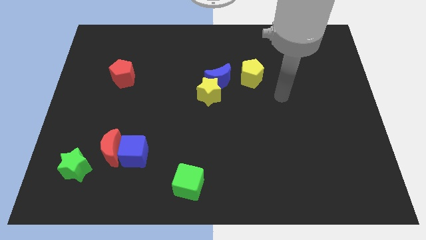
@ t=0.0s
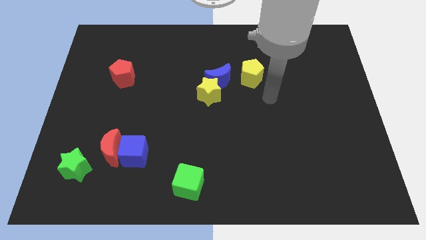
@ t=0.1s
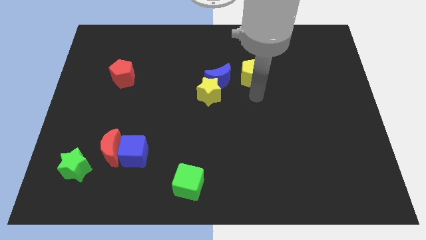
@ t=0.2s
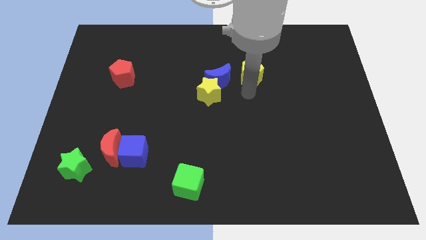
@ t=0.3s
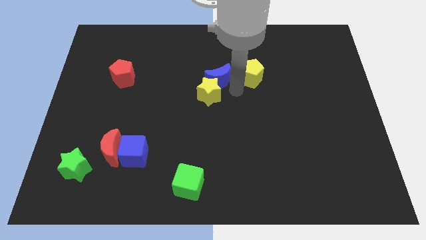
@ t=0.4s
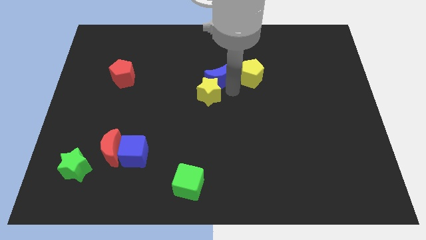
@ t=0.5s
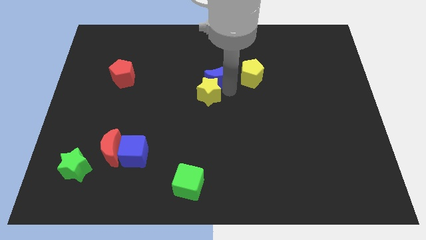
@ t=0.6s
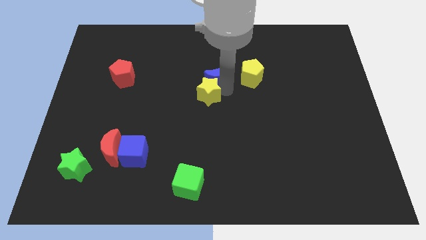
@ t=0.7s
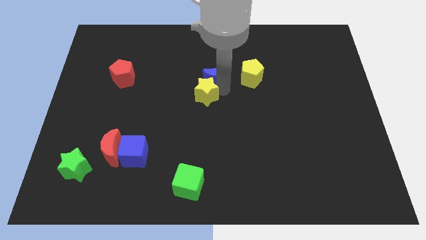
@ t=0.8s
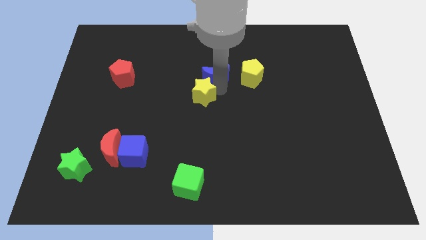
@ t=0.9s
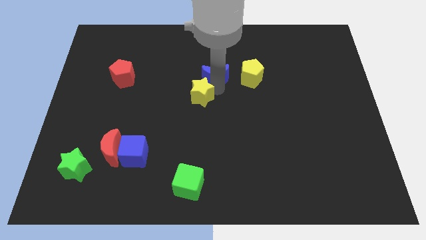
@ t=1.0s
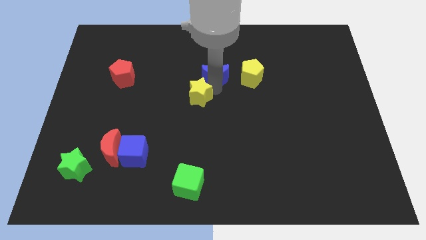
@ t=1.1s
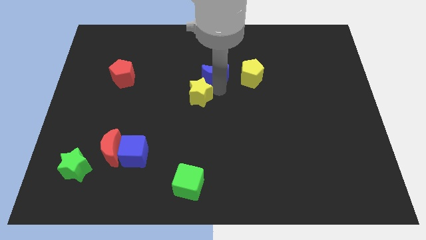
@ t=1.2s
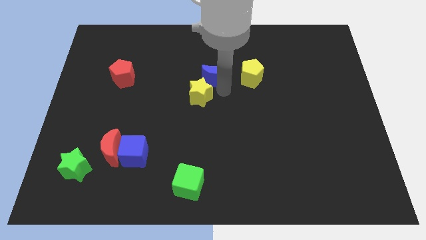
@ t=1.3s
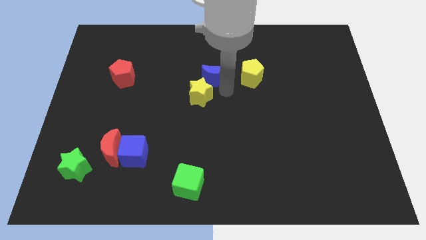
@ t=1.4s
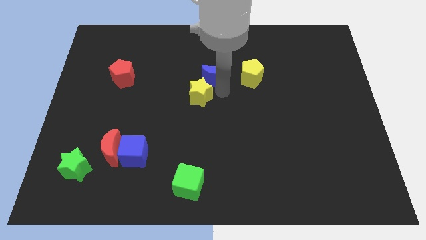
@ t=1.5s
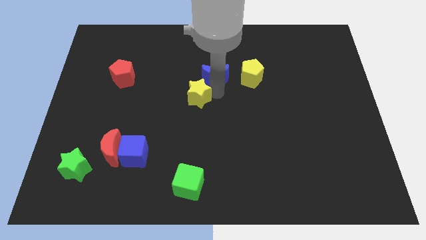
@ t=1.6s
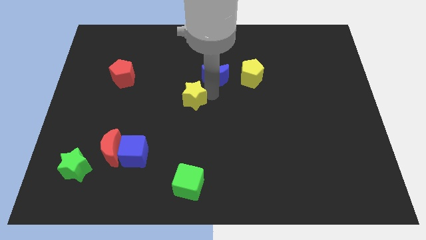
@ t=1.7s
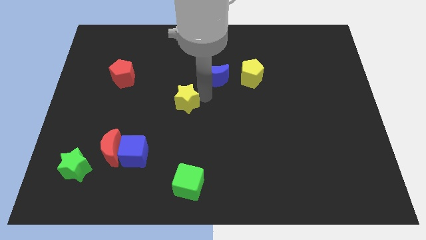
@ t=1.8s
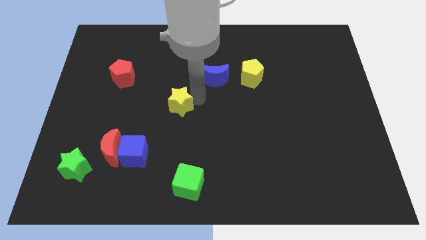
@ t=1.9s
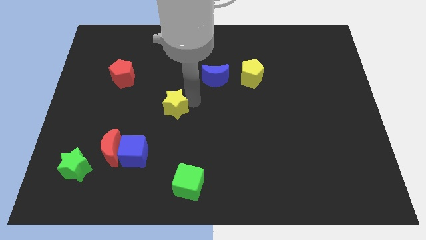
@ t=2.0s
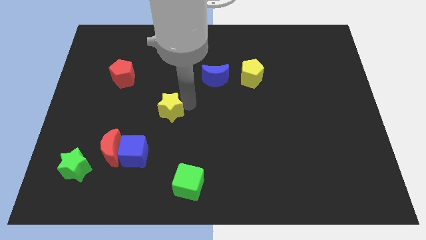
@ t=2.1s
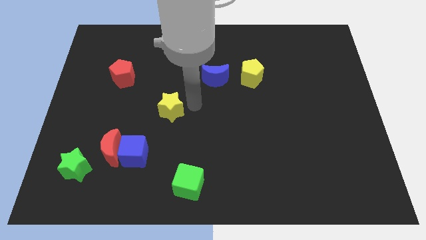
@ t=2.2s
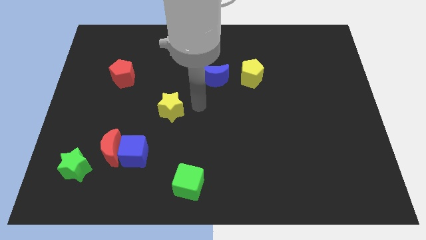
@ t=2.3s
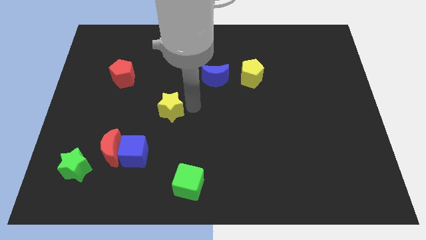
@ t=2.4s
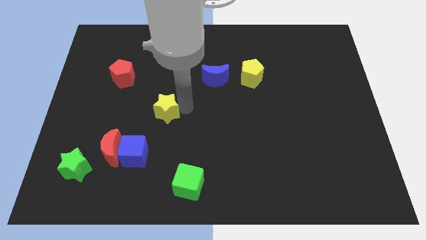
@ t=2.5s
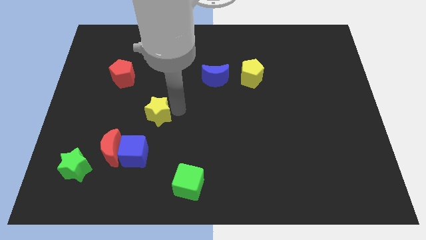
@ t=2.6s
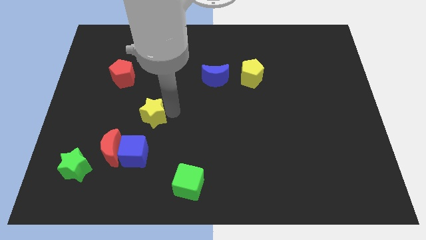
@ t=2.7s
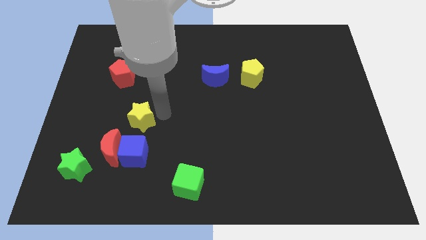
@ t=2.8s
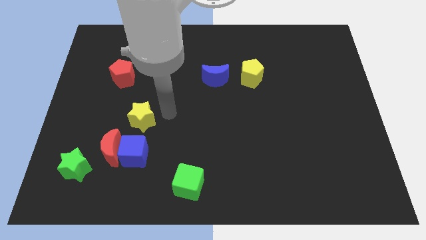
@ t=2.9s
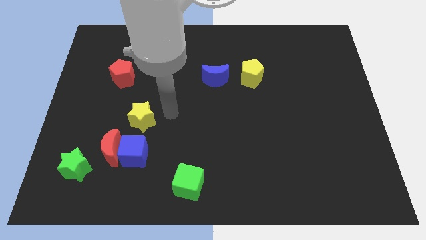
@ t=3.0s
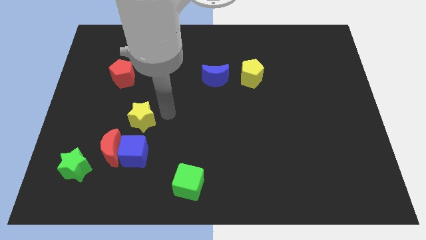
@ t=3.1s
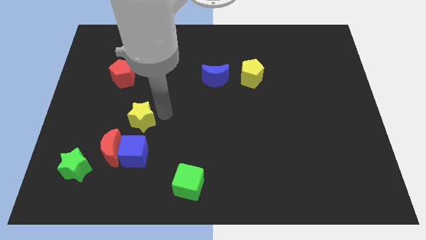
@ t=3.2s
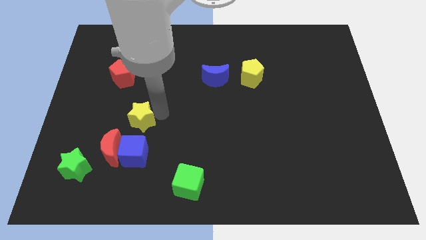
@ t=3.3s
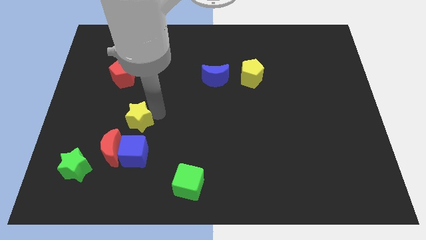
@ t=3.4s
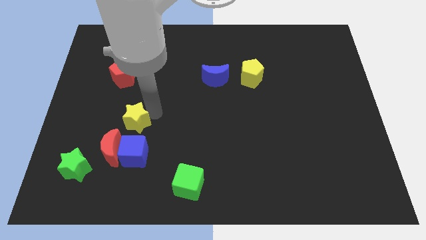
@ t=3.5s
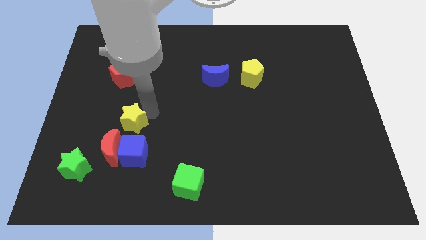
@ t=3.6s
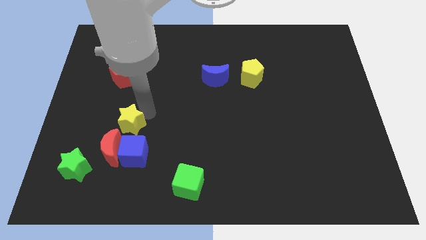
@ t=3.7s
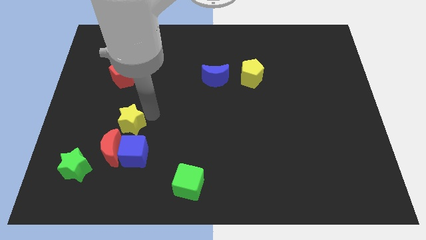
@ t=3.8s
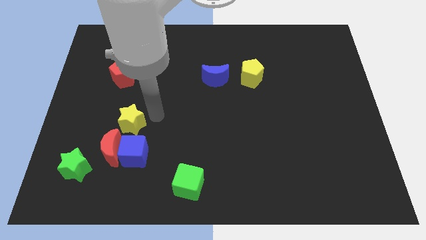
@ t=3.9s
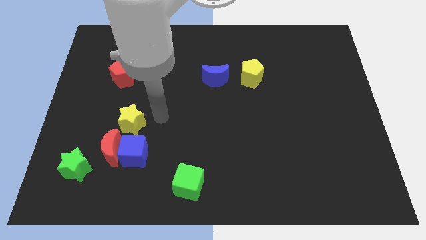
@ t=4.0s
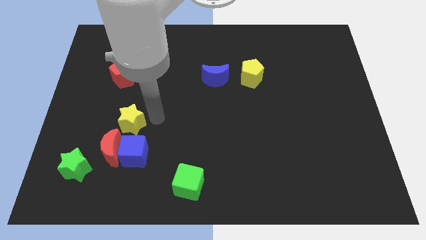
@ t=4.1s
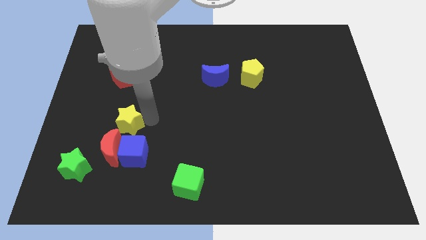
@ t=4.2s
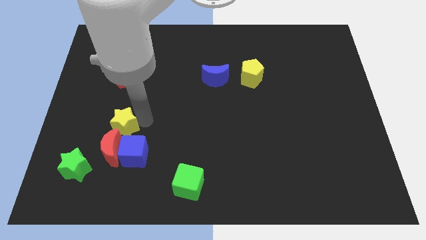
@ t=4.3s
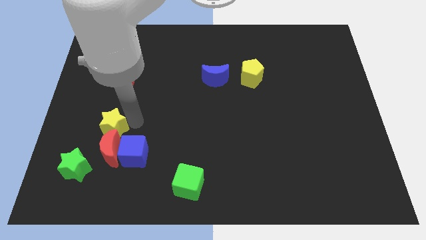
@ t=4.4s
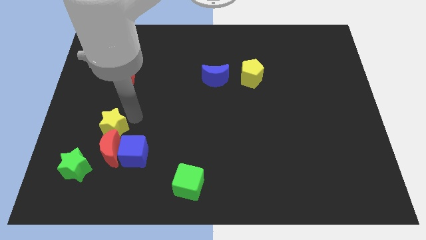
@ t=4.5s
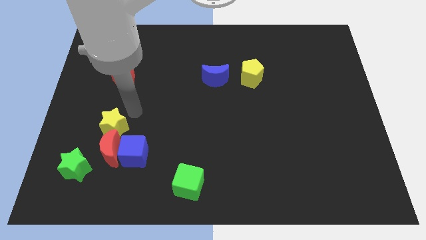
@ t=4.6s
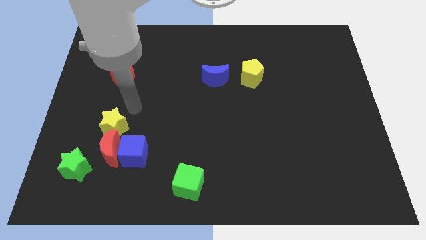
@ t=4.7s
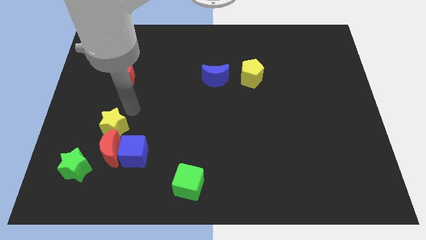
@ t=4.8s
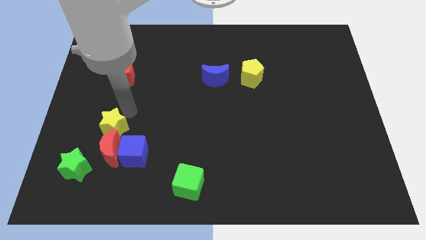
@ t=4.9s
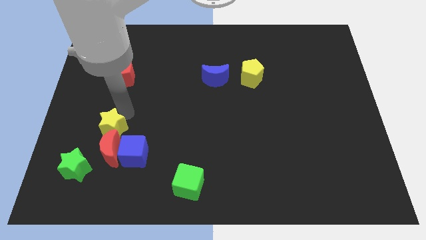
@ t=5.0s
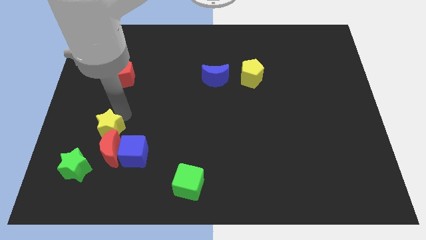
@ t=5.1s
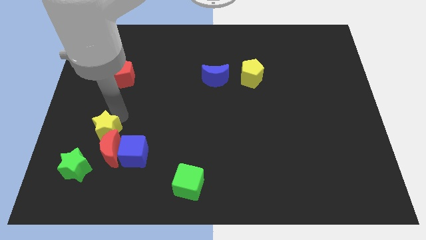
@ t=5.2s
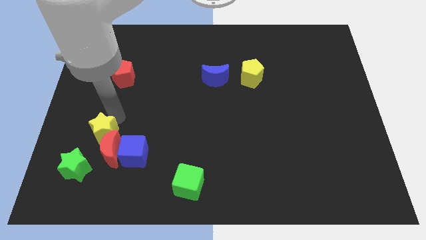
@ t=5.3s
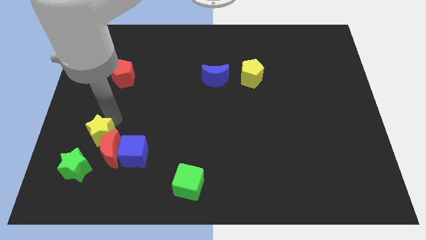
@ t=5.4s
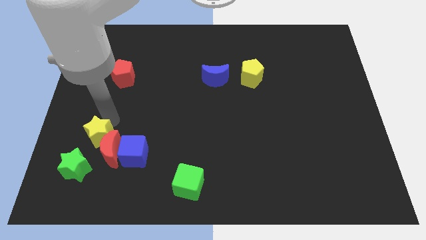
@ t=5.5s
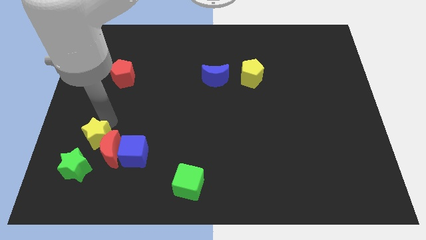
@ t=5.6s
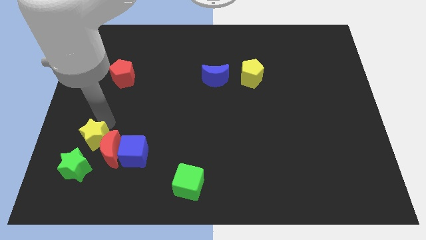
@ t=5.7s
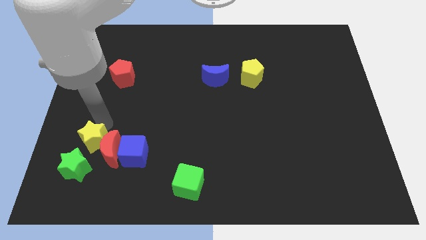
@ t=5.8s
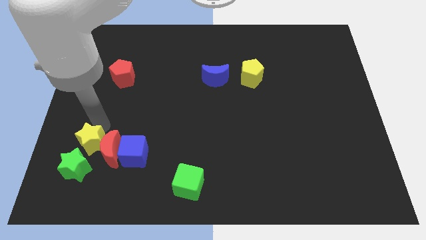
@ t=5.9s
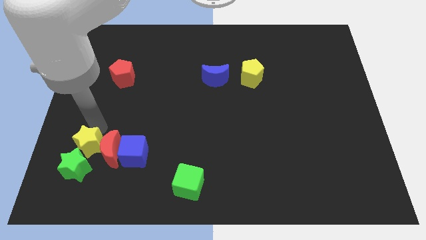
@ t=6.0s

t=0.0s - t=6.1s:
slide the yellow star close to the green star
